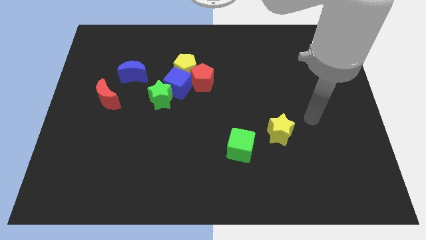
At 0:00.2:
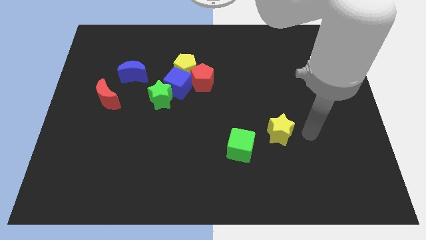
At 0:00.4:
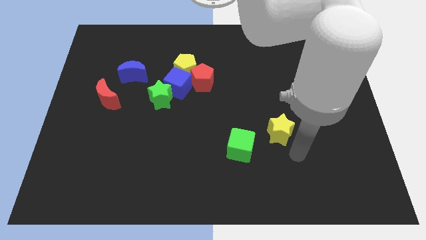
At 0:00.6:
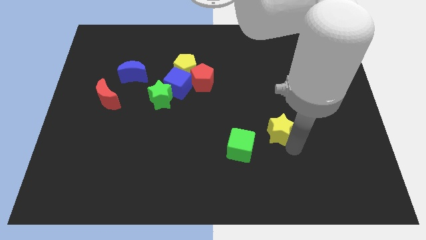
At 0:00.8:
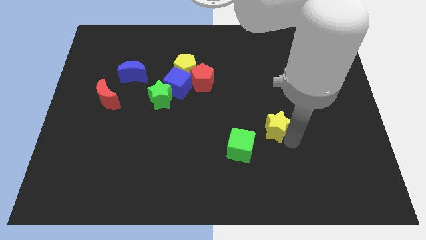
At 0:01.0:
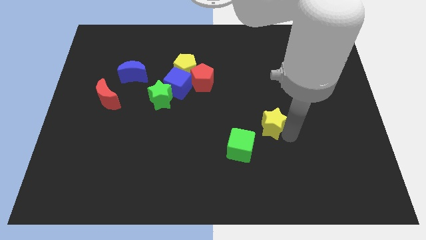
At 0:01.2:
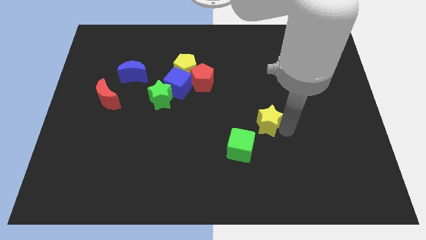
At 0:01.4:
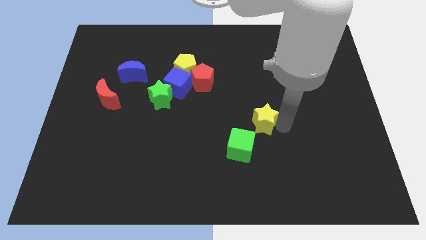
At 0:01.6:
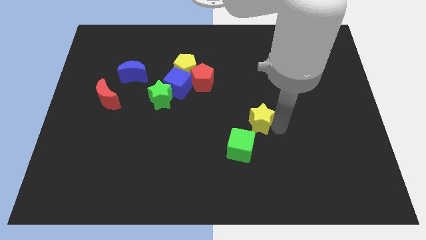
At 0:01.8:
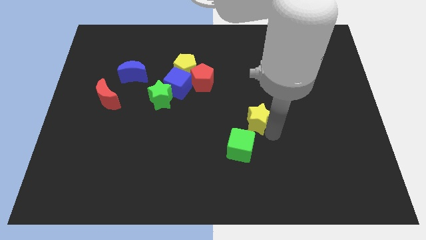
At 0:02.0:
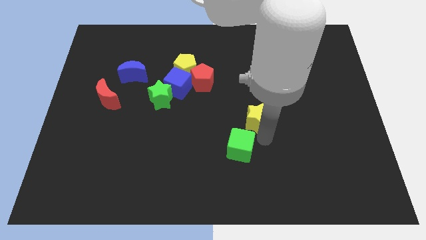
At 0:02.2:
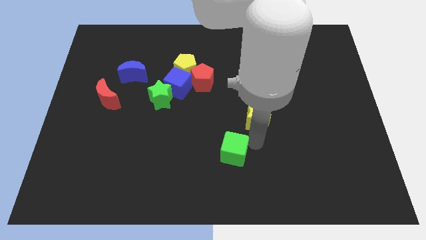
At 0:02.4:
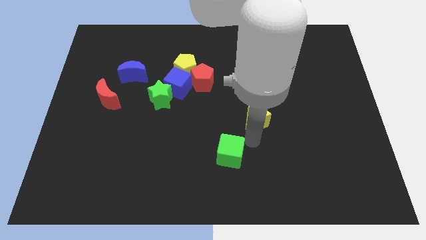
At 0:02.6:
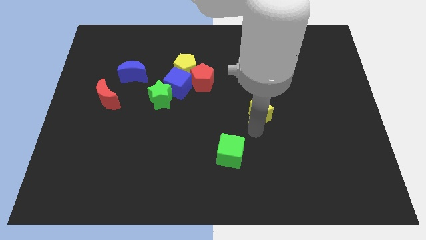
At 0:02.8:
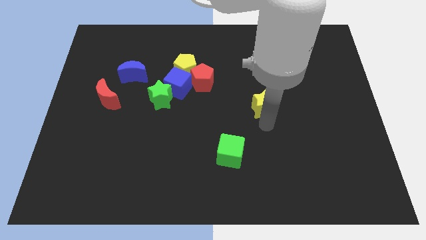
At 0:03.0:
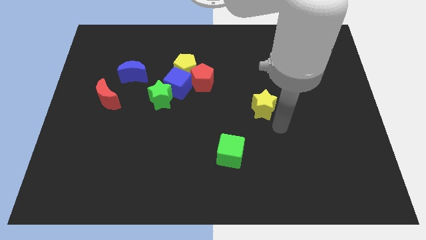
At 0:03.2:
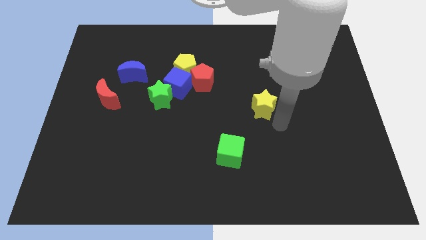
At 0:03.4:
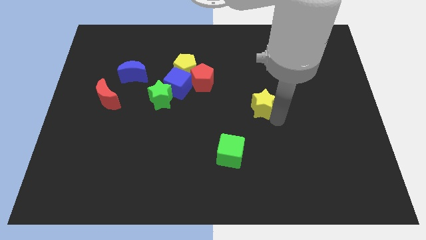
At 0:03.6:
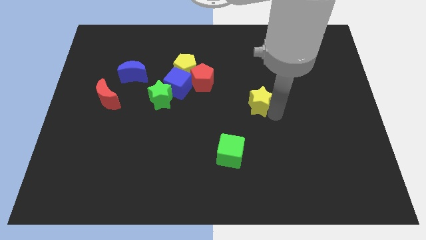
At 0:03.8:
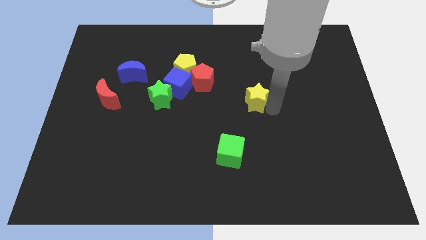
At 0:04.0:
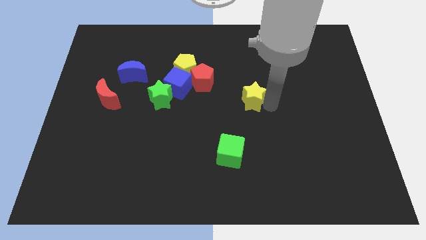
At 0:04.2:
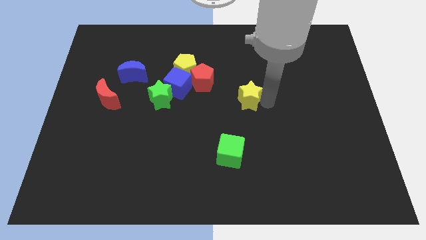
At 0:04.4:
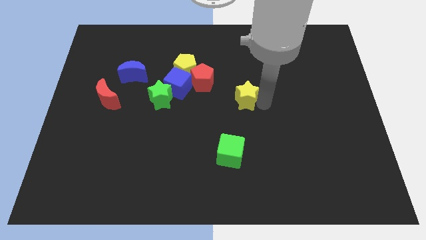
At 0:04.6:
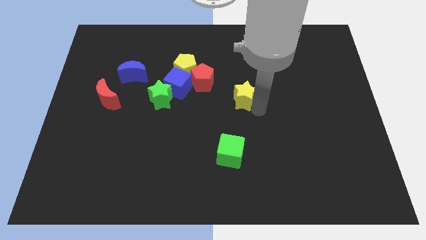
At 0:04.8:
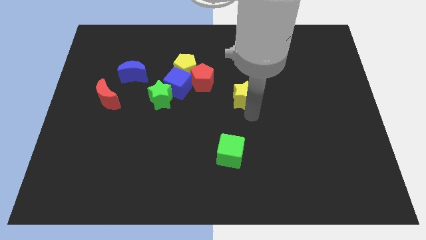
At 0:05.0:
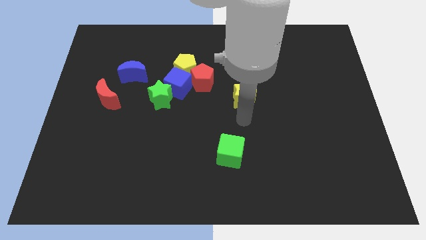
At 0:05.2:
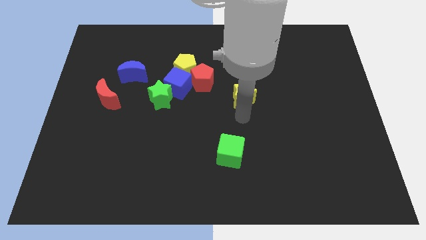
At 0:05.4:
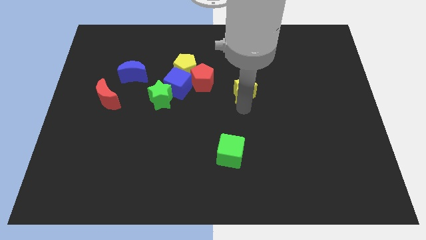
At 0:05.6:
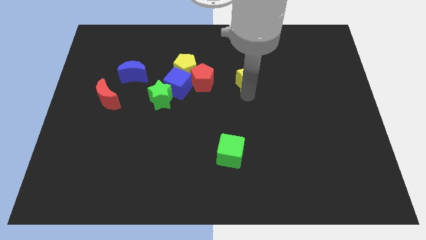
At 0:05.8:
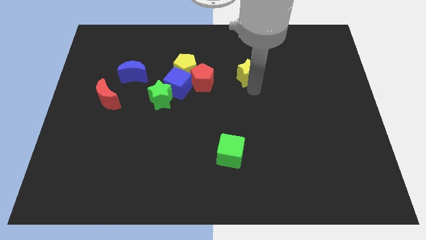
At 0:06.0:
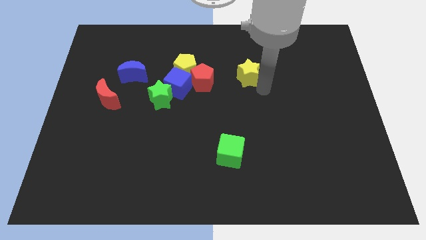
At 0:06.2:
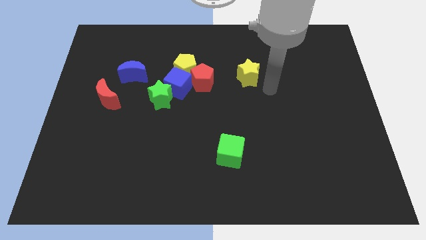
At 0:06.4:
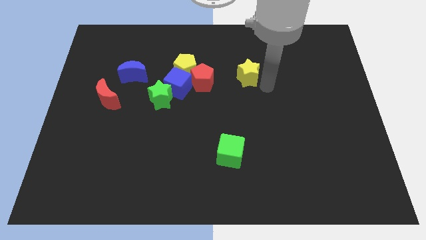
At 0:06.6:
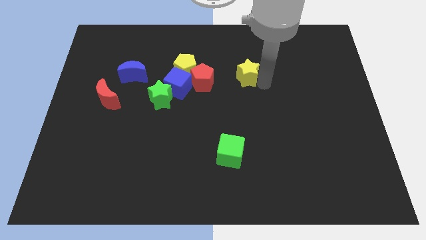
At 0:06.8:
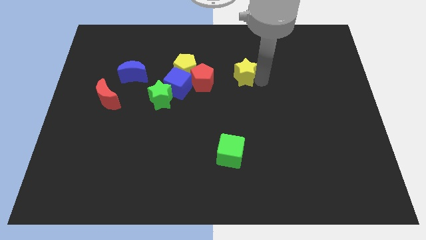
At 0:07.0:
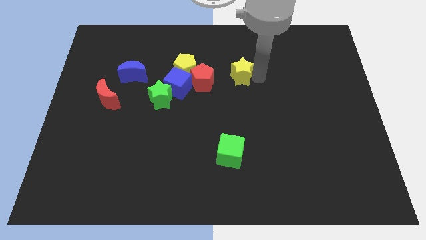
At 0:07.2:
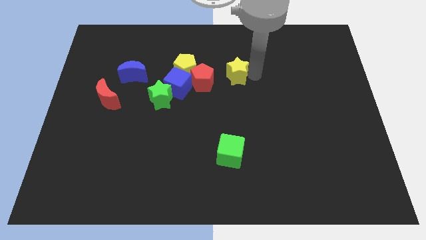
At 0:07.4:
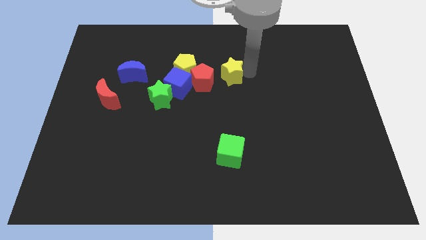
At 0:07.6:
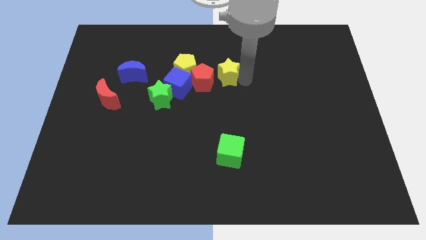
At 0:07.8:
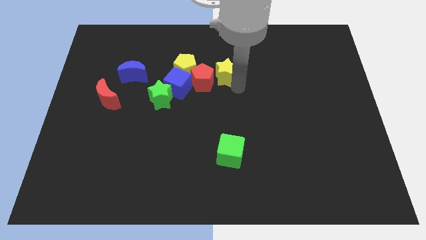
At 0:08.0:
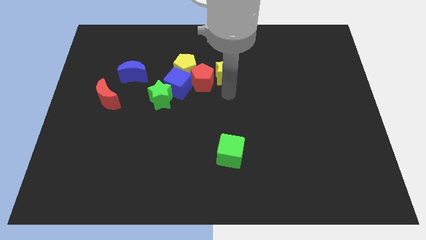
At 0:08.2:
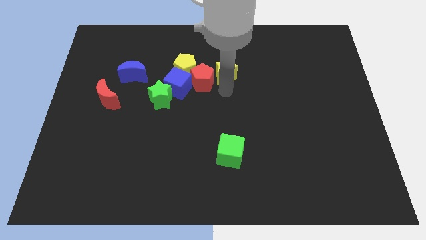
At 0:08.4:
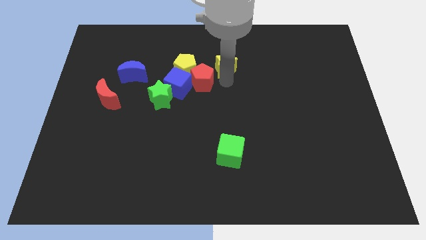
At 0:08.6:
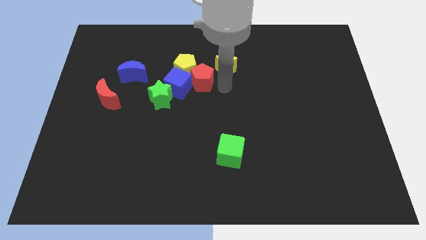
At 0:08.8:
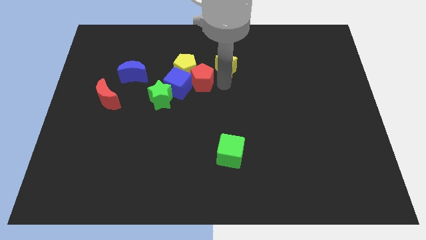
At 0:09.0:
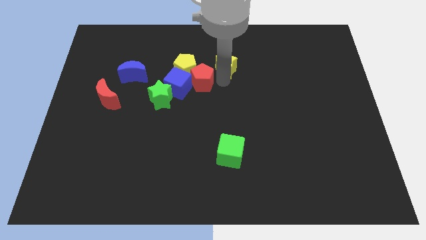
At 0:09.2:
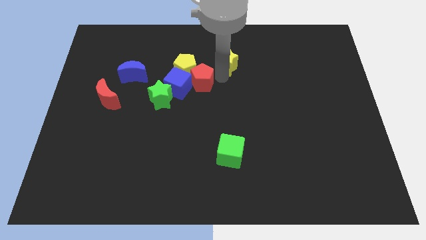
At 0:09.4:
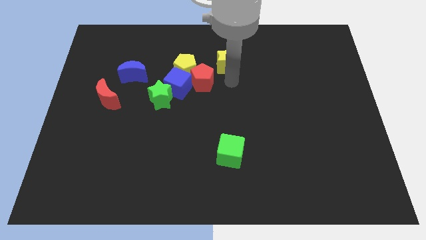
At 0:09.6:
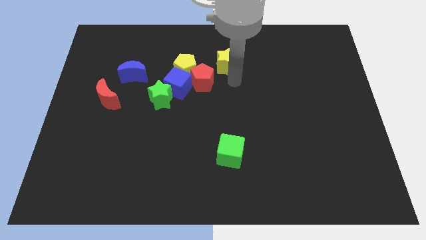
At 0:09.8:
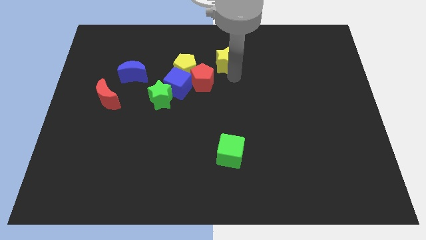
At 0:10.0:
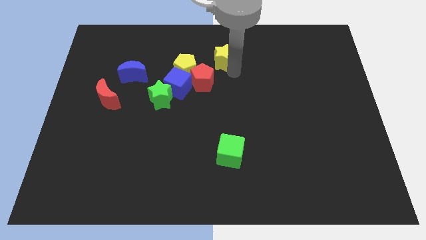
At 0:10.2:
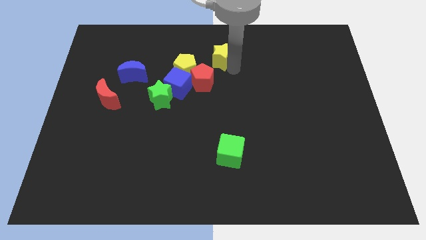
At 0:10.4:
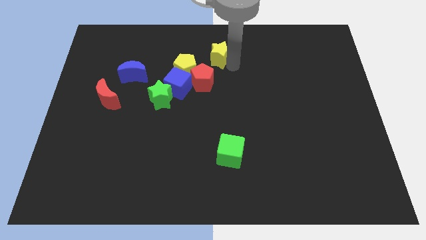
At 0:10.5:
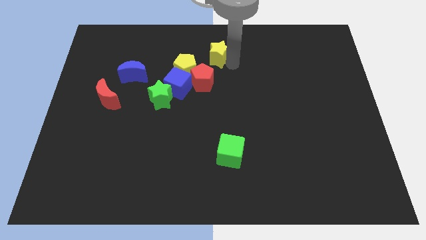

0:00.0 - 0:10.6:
slide the yellow star to the top side

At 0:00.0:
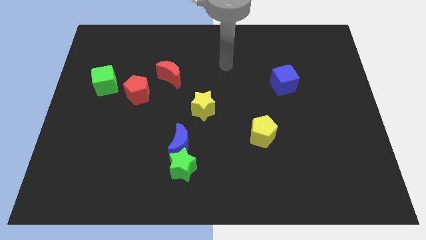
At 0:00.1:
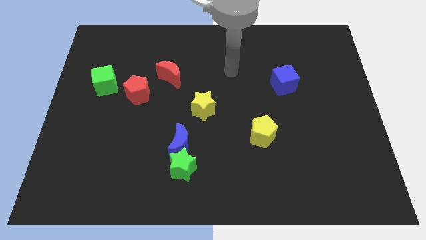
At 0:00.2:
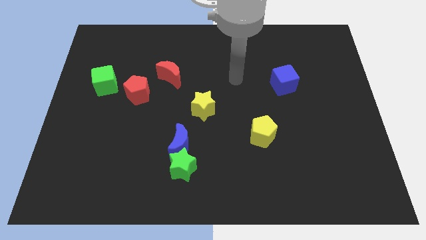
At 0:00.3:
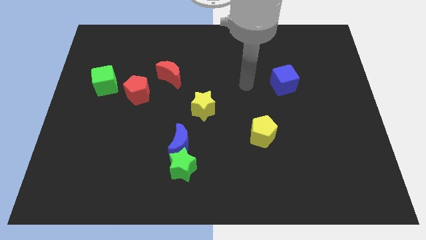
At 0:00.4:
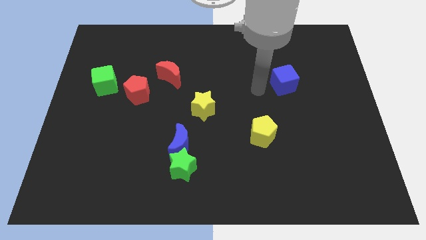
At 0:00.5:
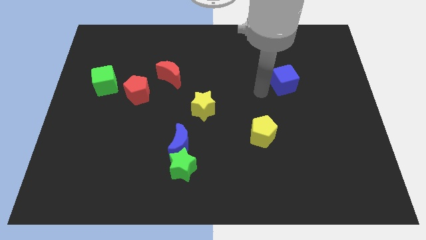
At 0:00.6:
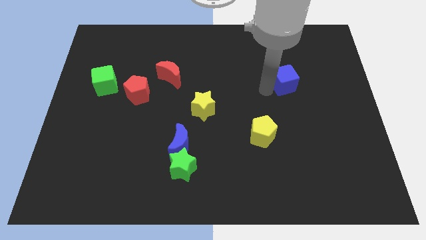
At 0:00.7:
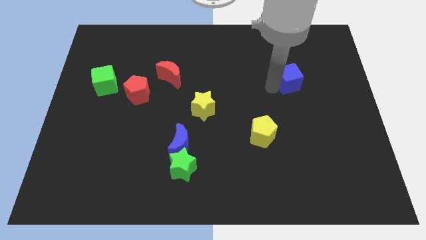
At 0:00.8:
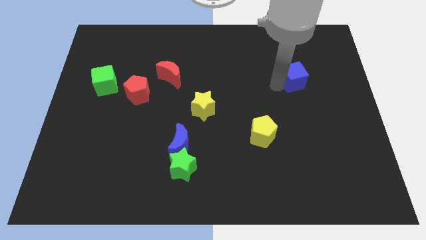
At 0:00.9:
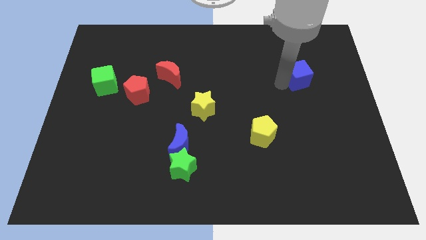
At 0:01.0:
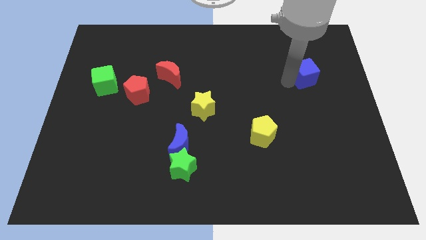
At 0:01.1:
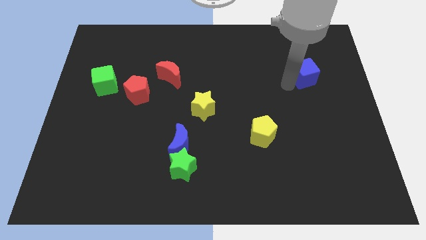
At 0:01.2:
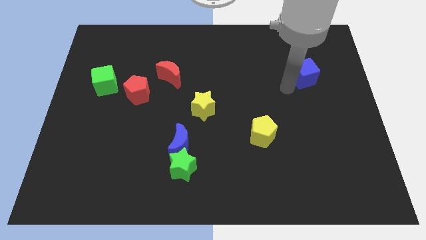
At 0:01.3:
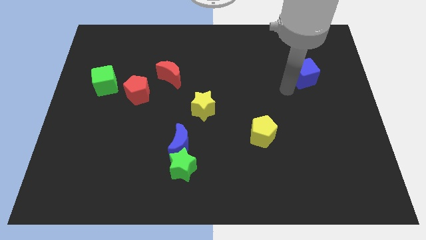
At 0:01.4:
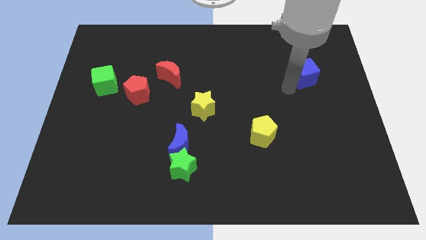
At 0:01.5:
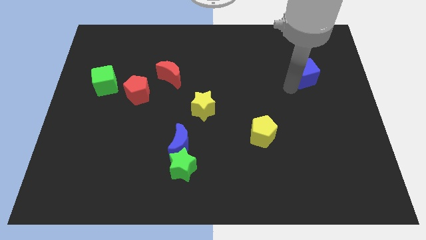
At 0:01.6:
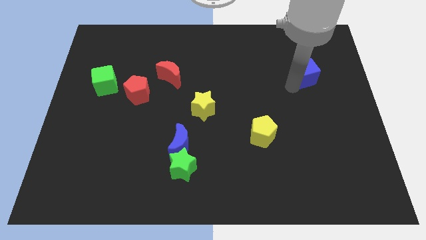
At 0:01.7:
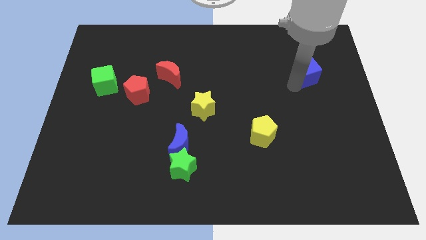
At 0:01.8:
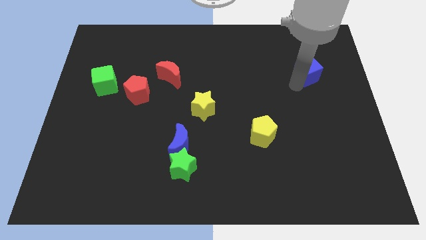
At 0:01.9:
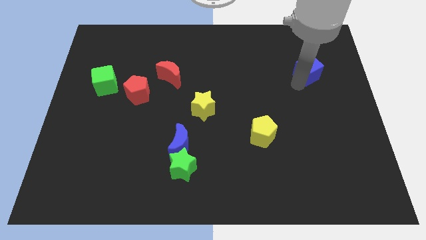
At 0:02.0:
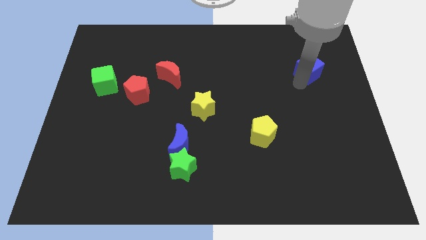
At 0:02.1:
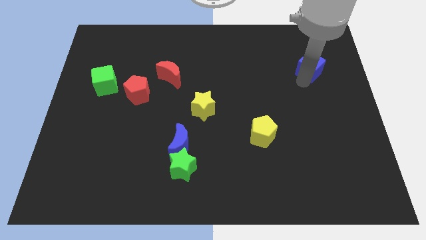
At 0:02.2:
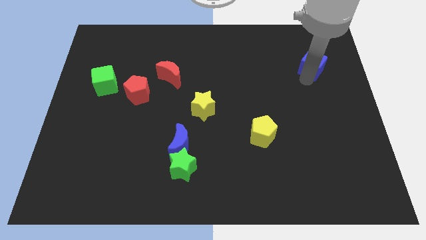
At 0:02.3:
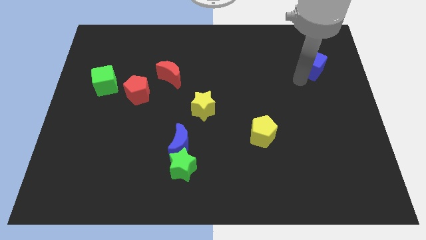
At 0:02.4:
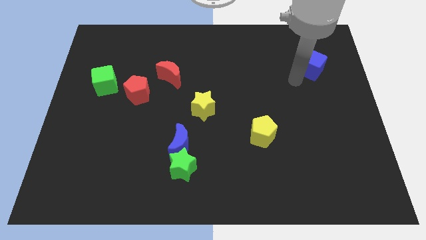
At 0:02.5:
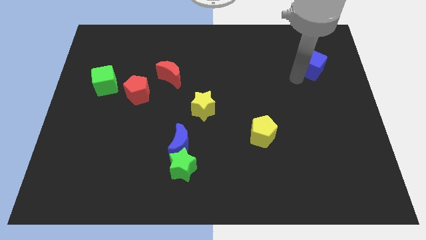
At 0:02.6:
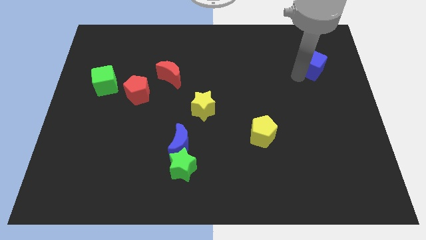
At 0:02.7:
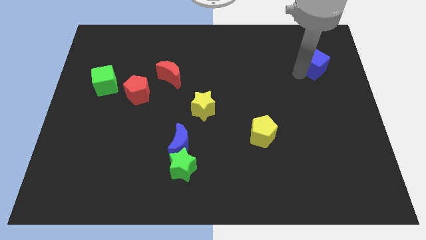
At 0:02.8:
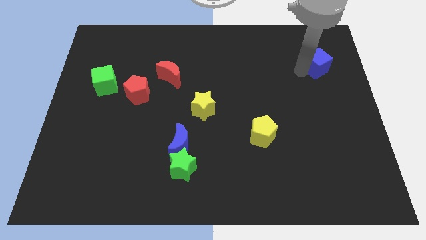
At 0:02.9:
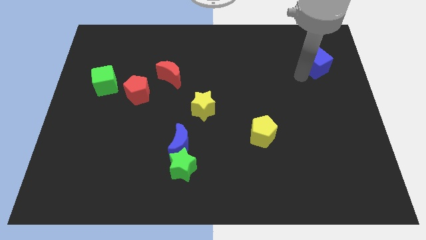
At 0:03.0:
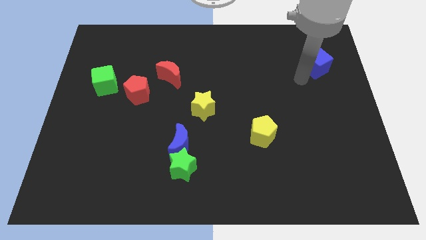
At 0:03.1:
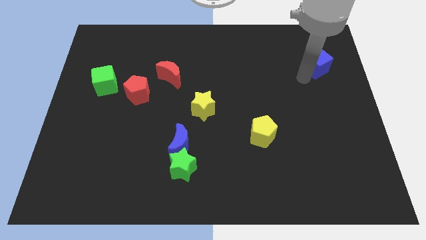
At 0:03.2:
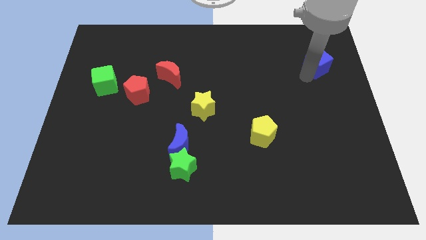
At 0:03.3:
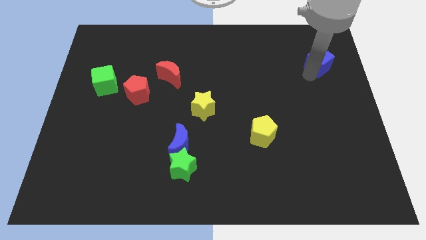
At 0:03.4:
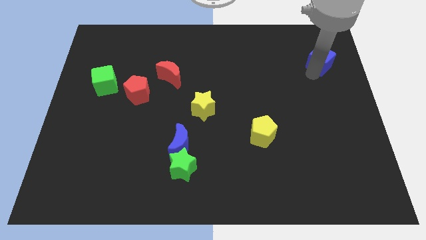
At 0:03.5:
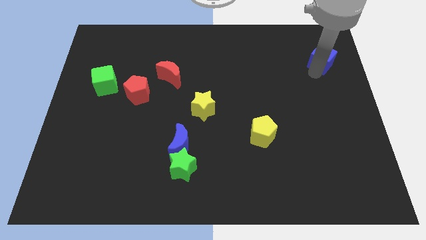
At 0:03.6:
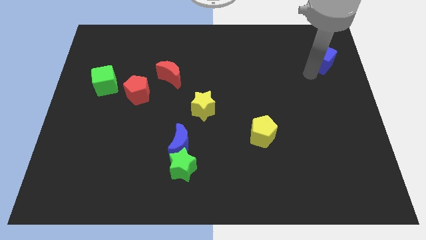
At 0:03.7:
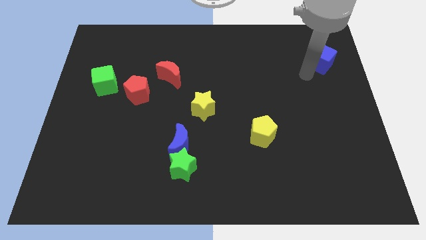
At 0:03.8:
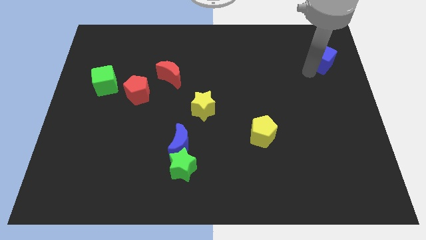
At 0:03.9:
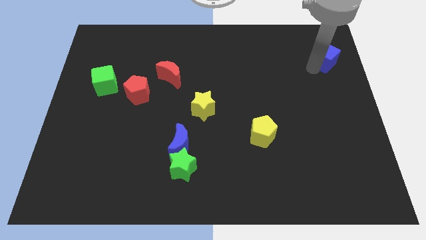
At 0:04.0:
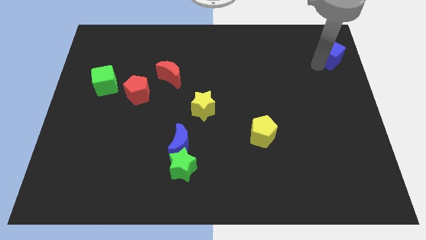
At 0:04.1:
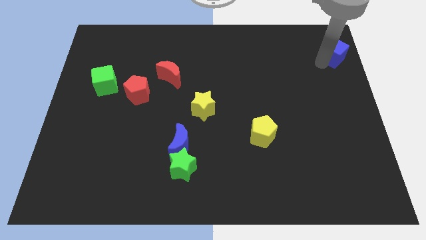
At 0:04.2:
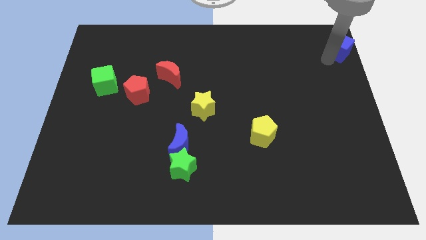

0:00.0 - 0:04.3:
push the blue cube to the top right corner
